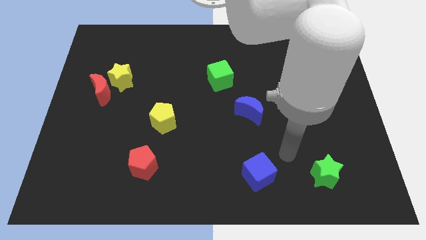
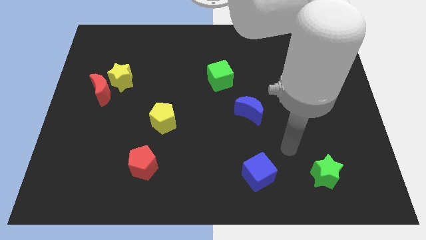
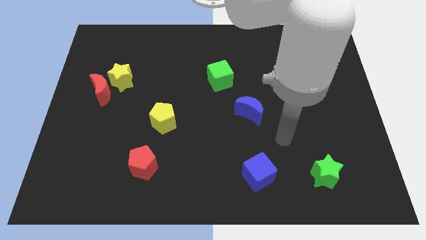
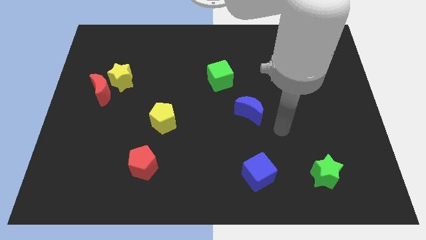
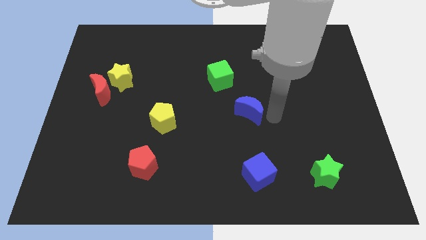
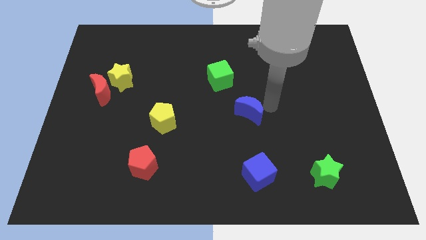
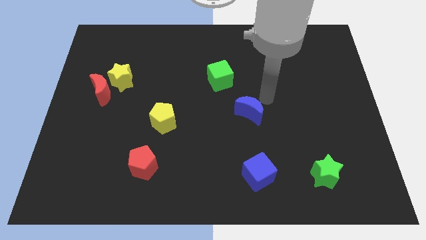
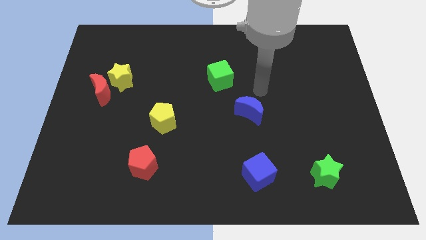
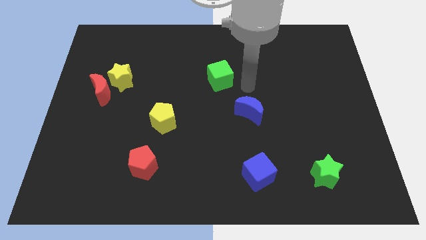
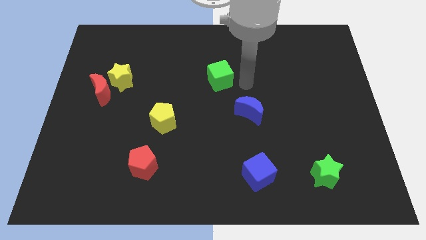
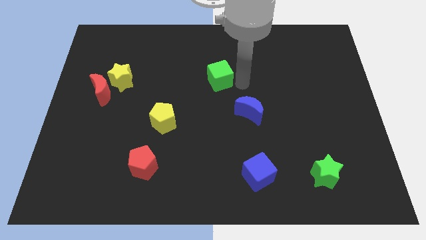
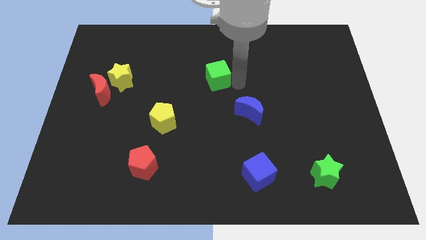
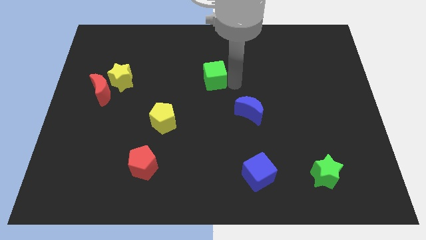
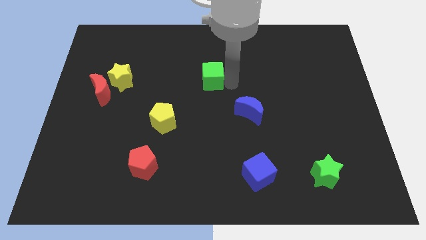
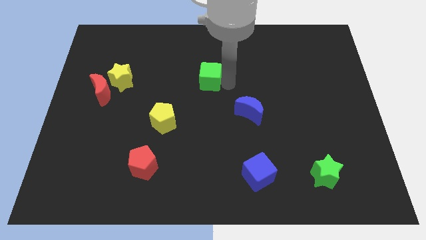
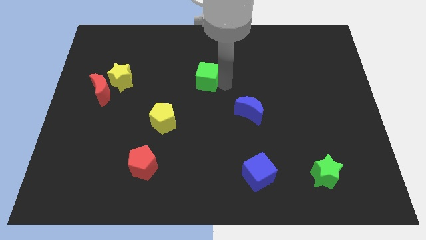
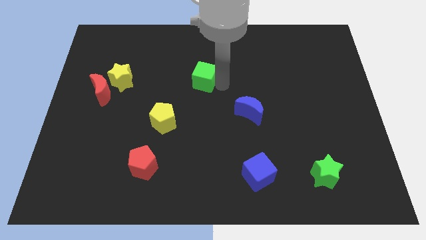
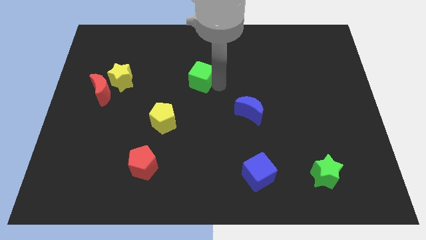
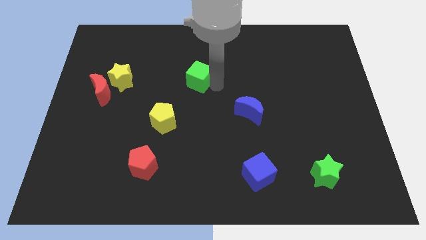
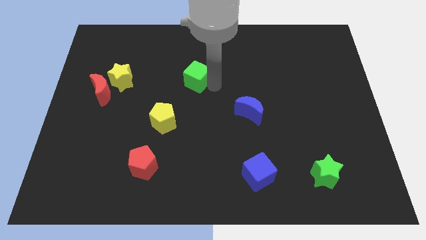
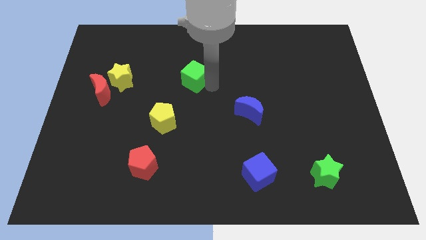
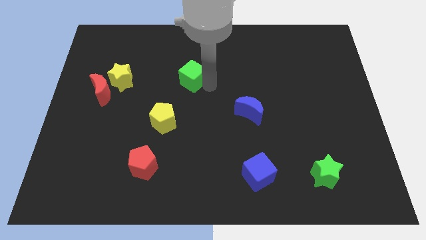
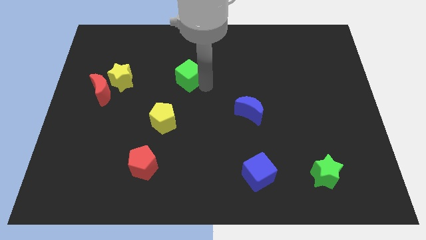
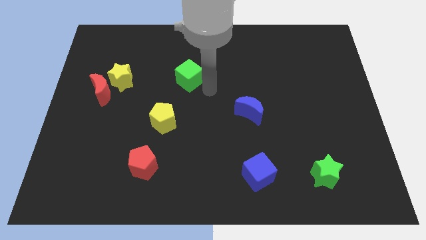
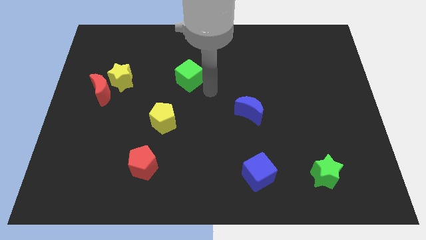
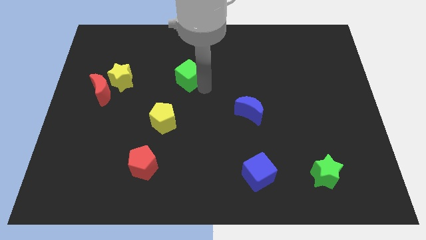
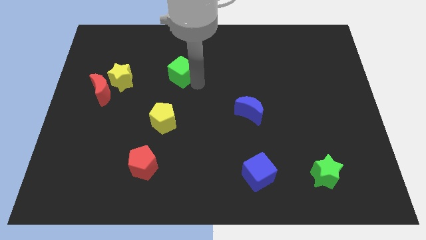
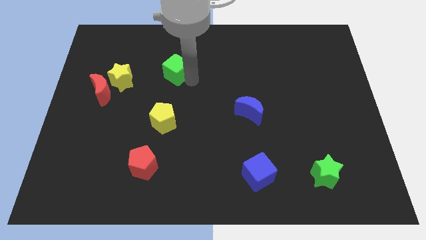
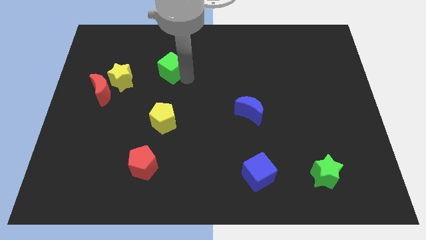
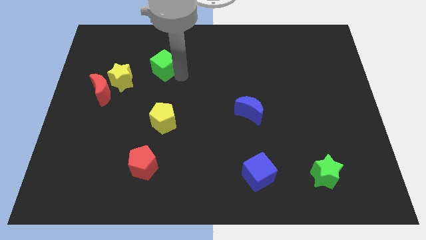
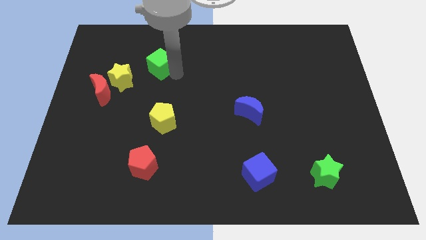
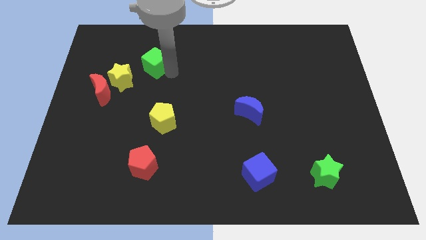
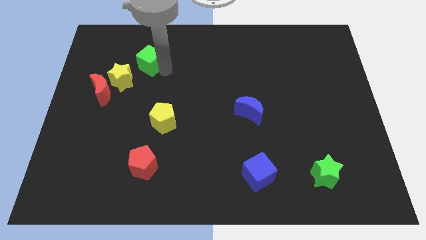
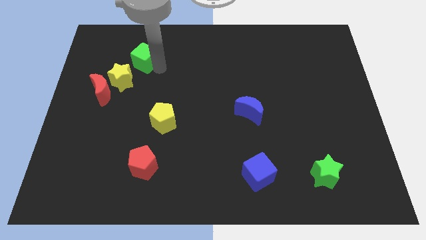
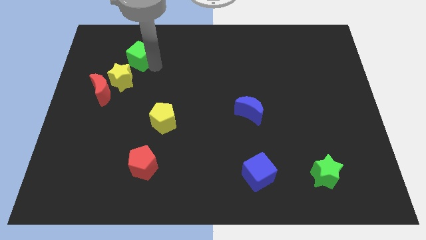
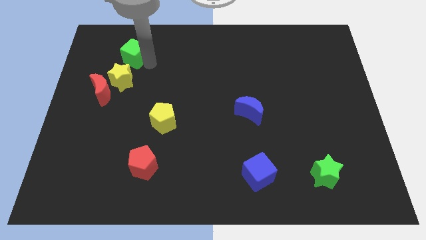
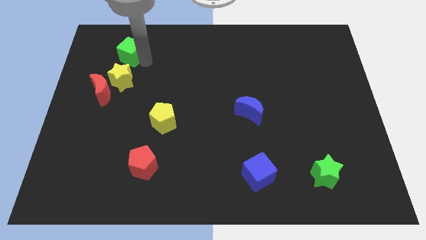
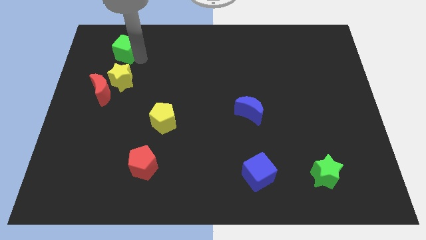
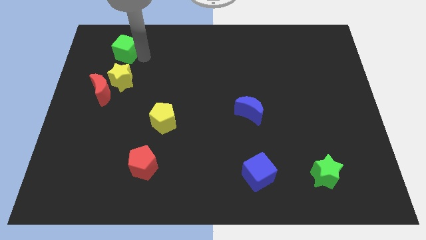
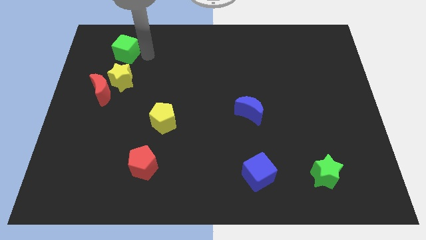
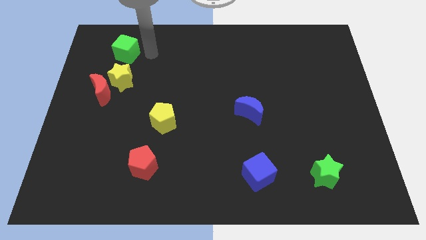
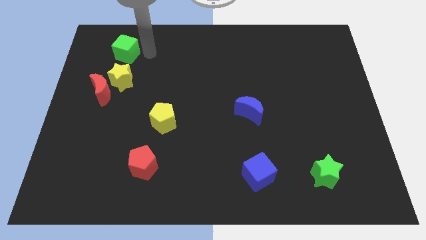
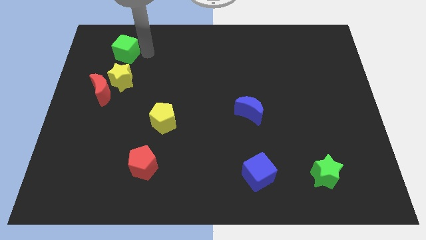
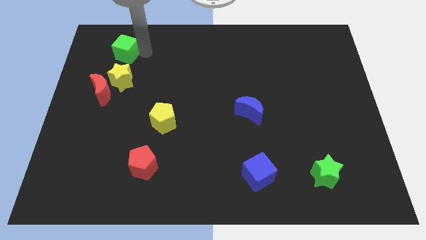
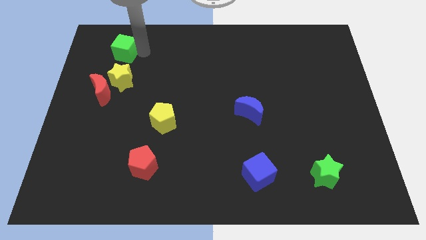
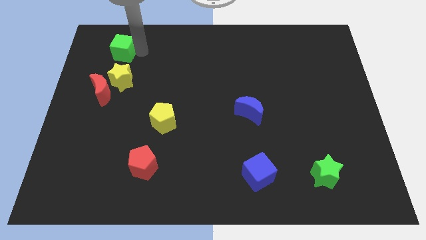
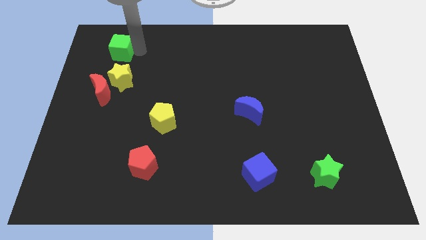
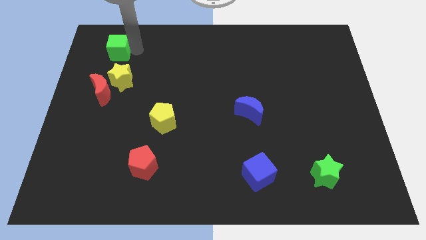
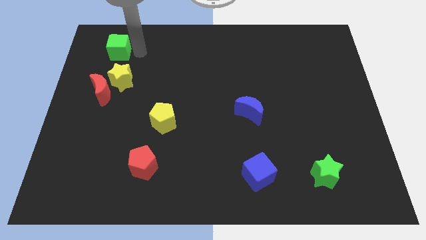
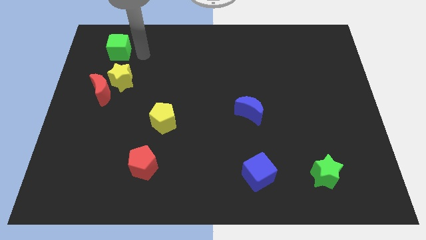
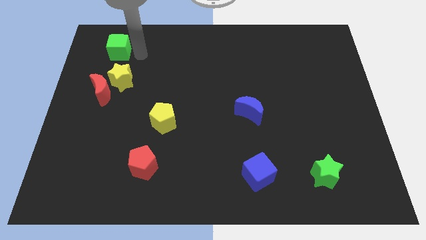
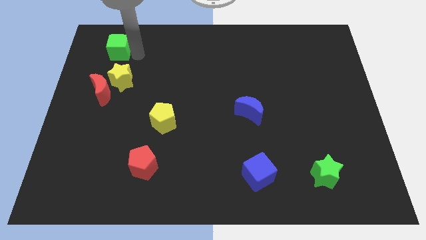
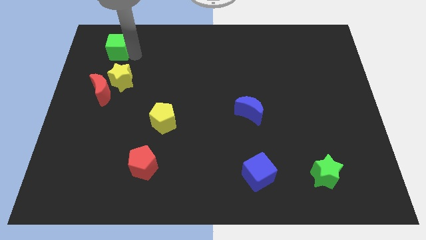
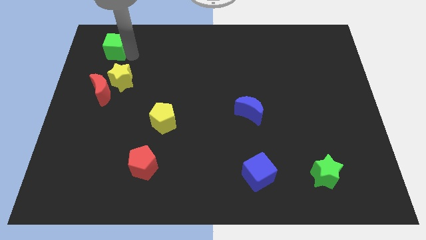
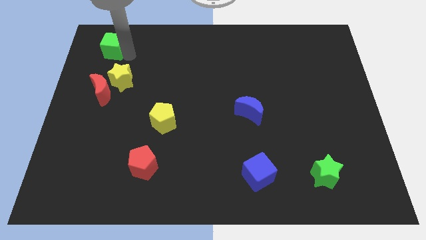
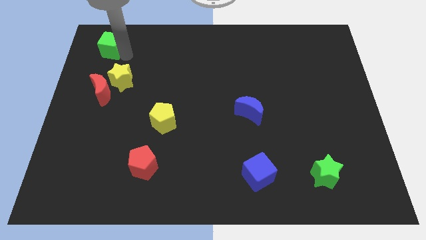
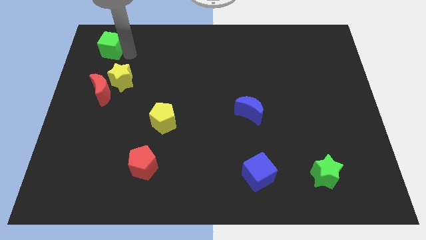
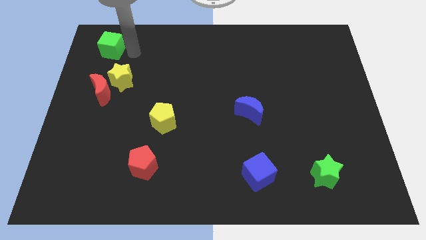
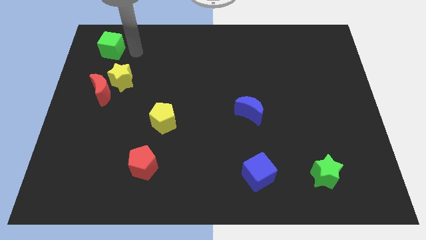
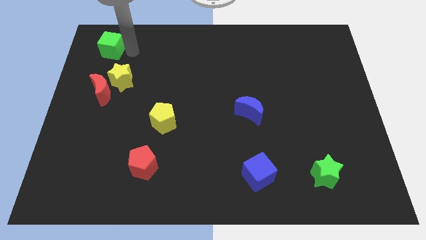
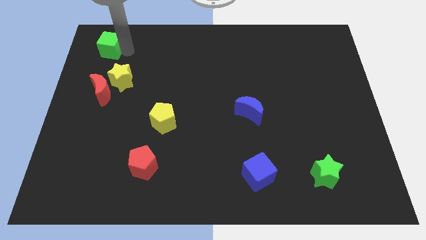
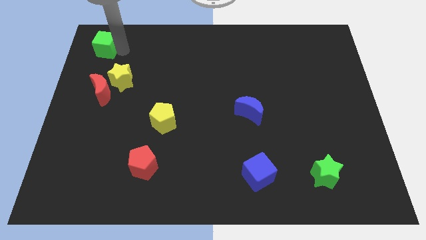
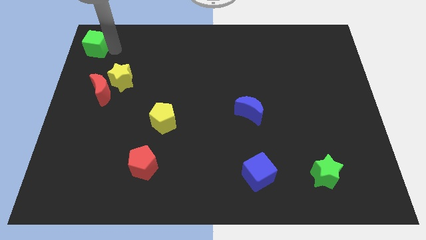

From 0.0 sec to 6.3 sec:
move the green cube to the upper left corner

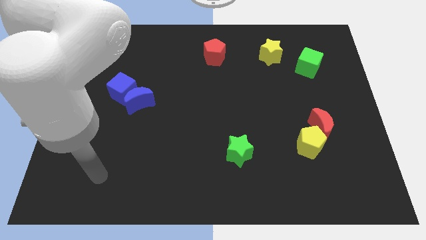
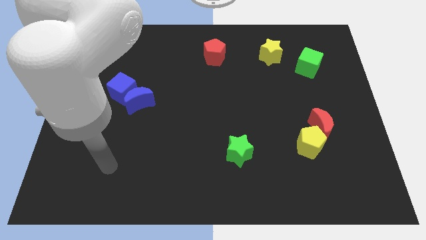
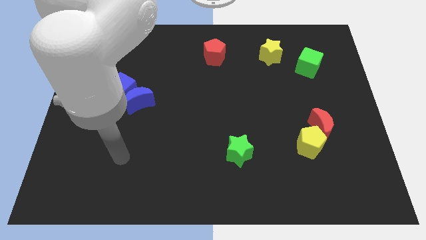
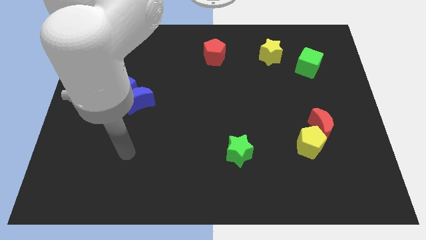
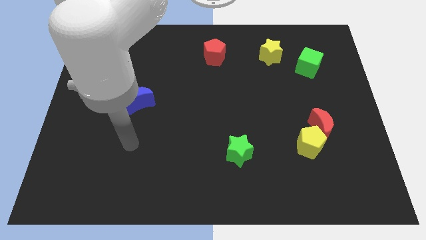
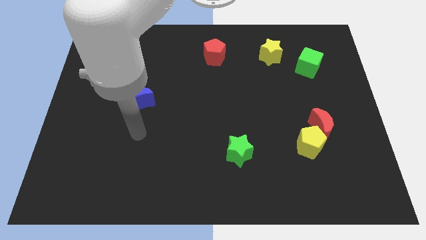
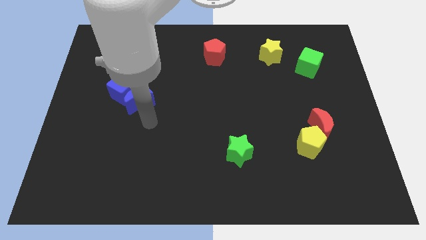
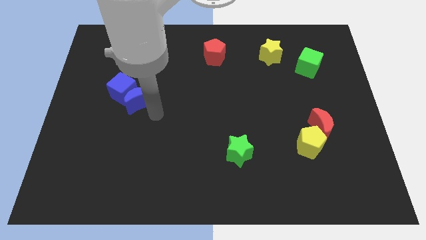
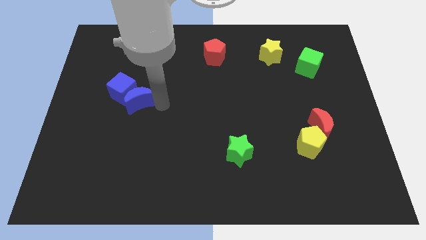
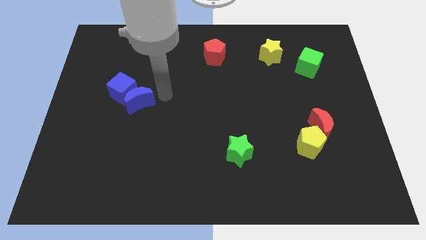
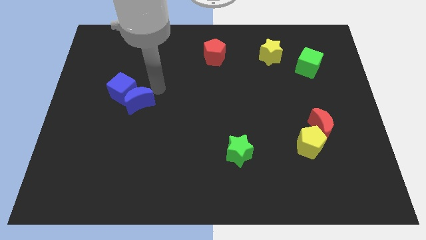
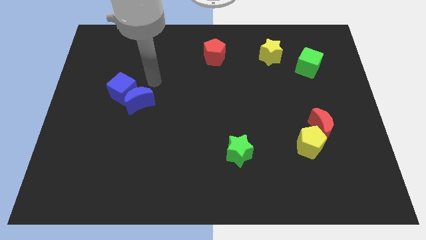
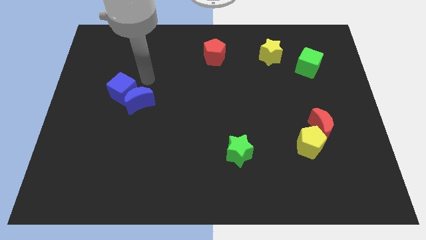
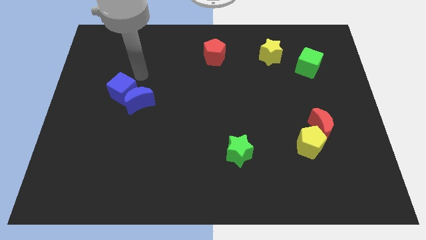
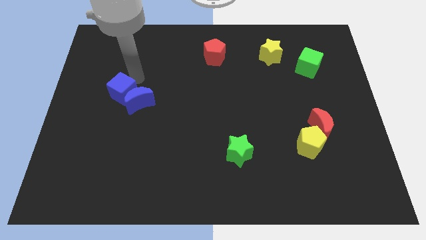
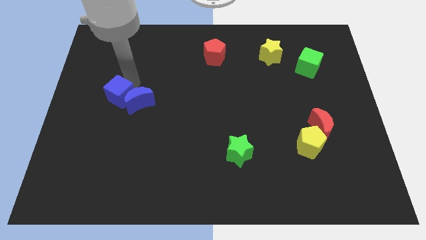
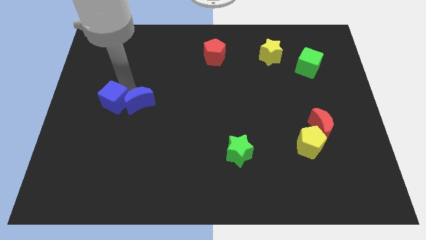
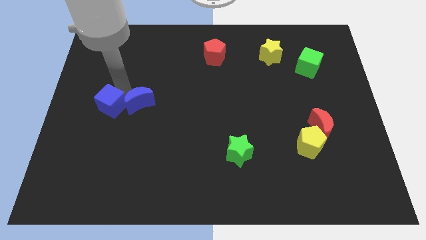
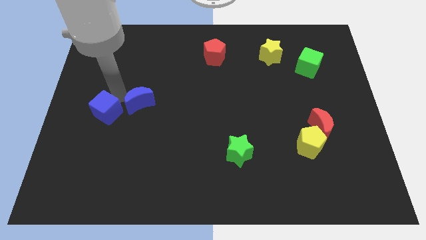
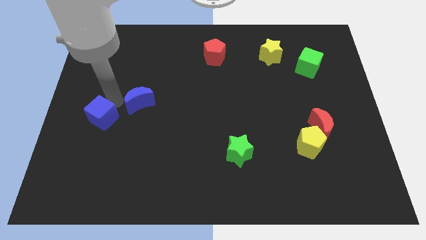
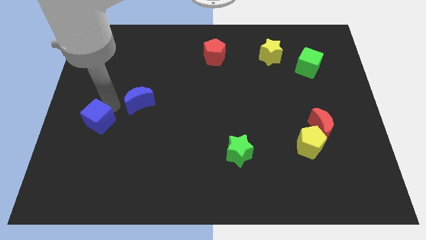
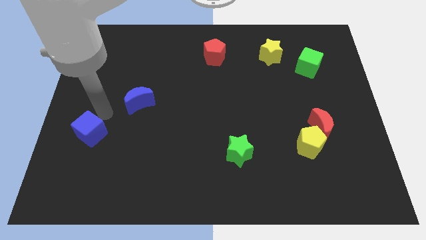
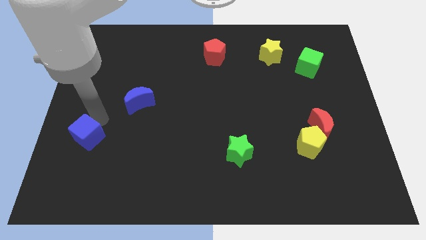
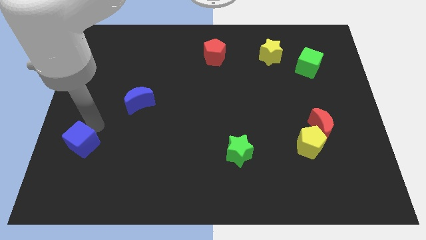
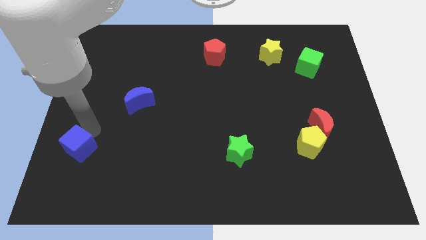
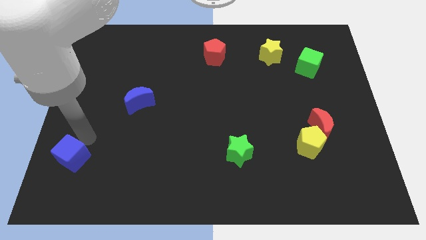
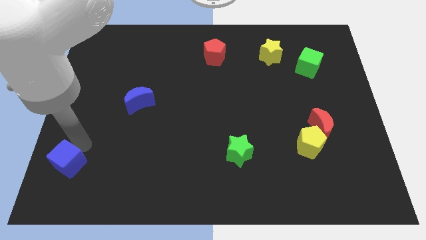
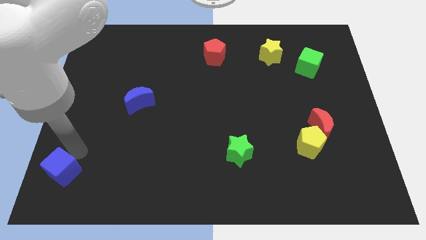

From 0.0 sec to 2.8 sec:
move the blue cube to the bottom left of the board
